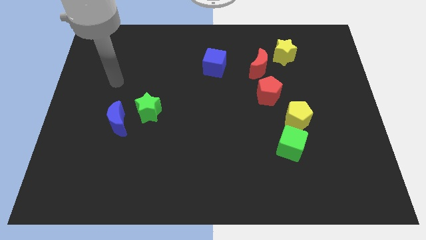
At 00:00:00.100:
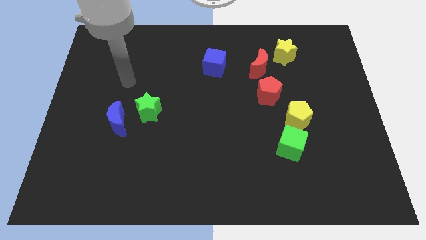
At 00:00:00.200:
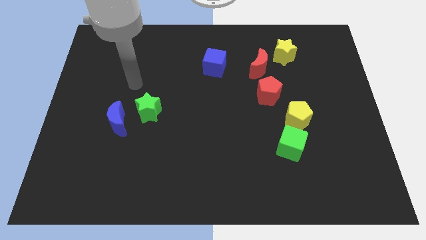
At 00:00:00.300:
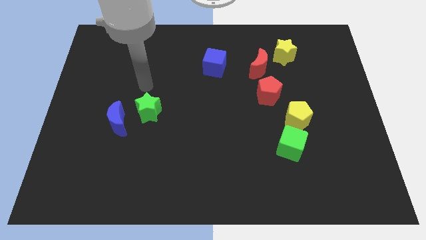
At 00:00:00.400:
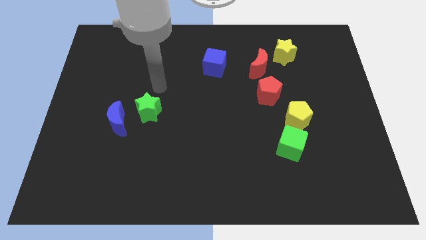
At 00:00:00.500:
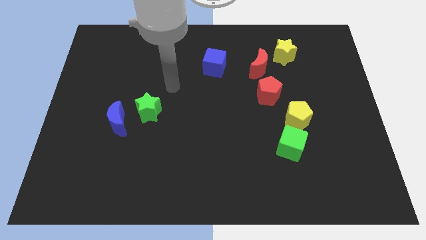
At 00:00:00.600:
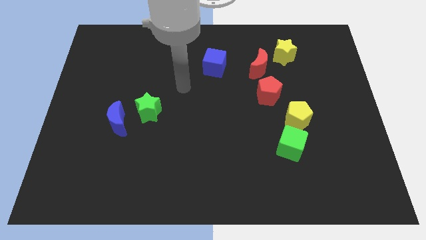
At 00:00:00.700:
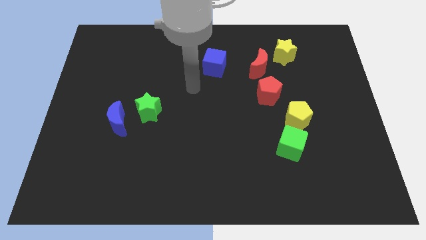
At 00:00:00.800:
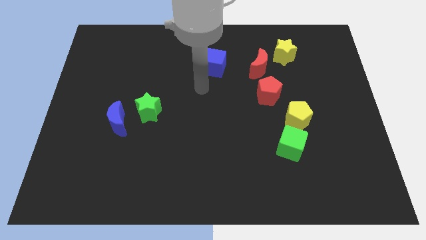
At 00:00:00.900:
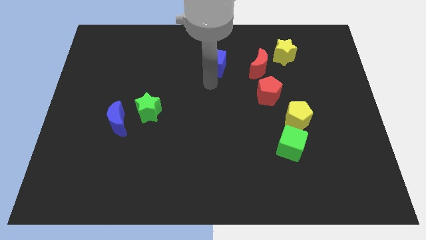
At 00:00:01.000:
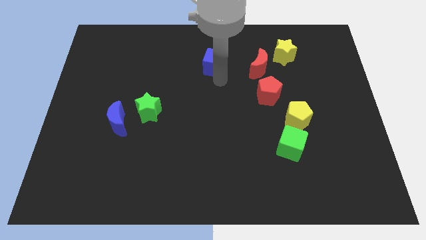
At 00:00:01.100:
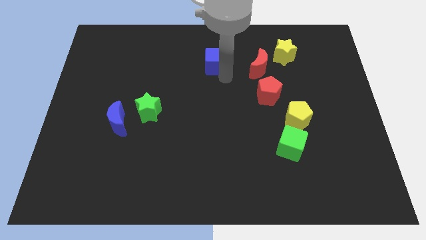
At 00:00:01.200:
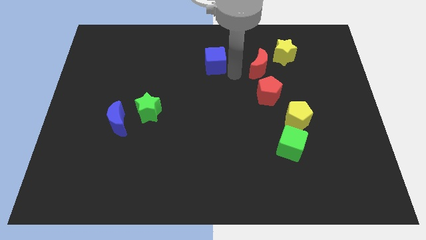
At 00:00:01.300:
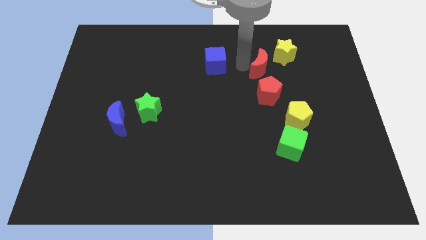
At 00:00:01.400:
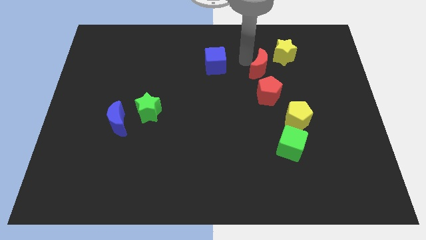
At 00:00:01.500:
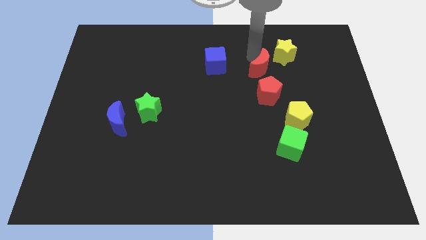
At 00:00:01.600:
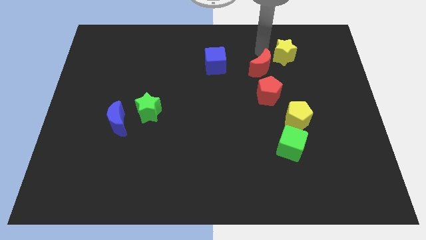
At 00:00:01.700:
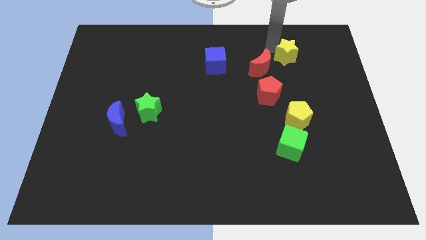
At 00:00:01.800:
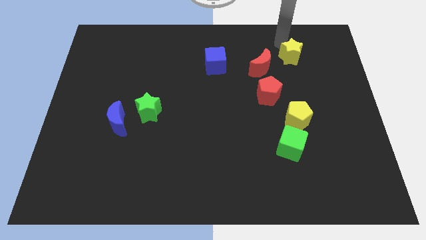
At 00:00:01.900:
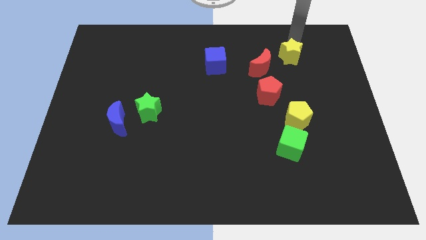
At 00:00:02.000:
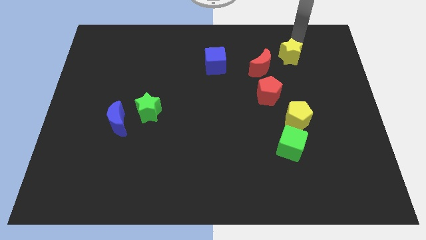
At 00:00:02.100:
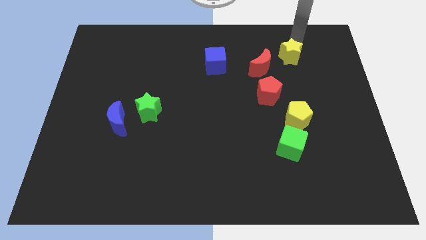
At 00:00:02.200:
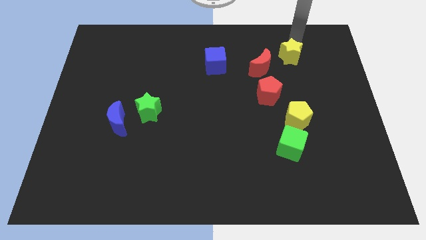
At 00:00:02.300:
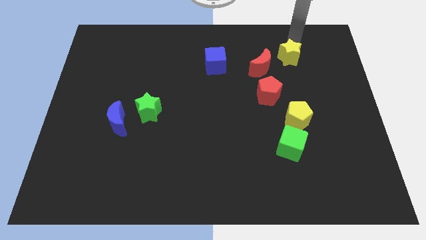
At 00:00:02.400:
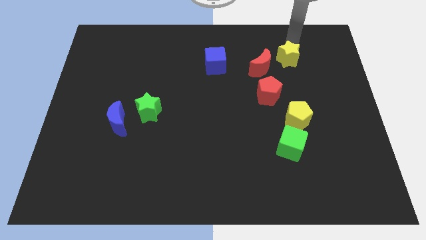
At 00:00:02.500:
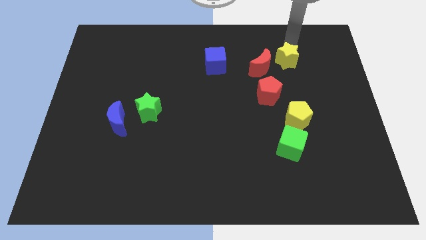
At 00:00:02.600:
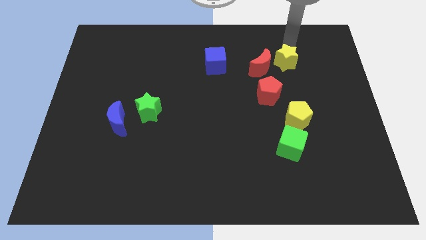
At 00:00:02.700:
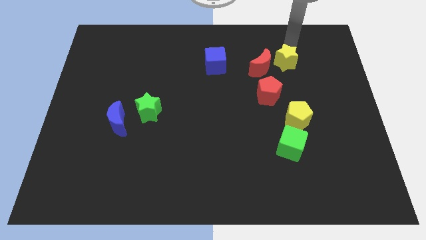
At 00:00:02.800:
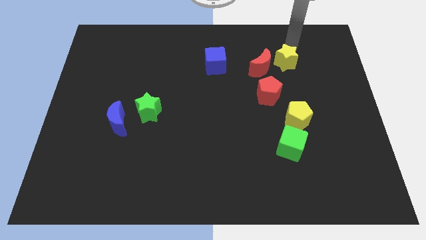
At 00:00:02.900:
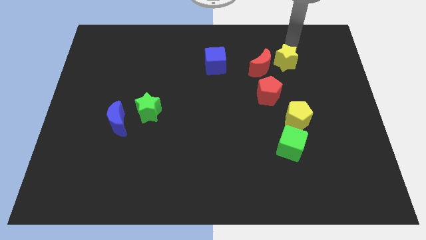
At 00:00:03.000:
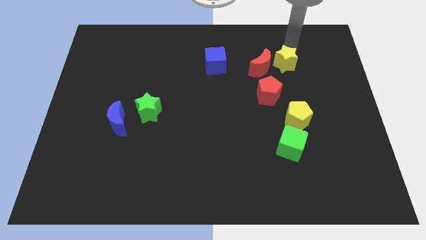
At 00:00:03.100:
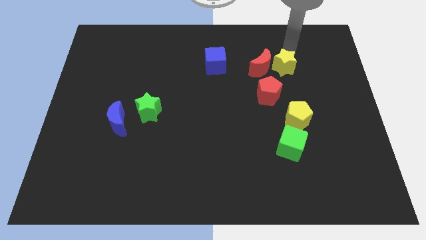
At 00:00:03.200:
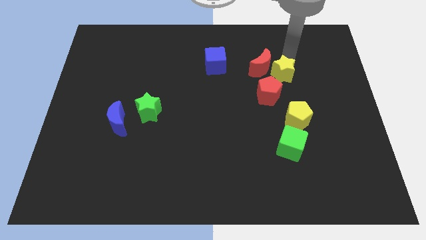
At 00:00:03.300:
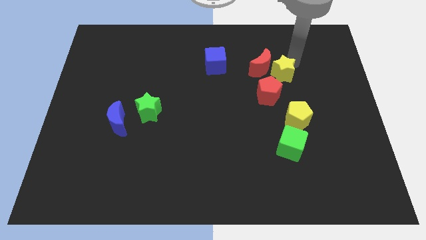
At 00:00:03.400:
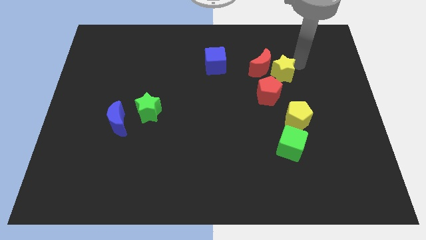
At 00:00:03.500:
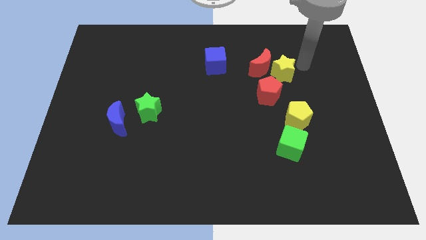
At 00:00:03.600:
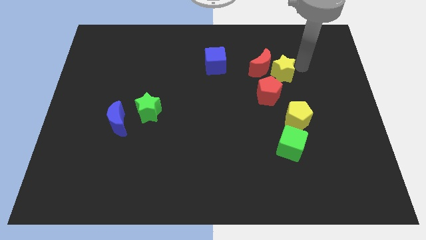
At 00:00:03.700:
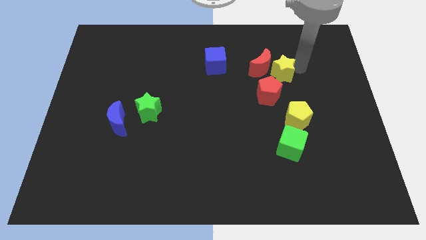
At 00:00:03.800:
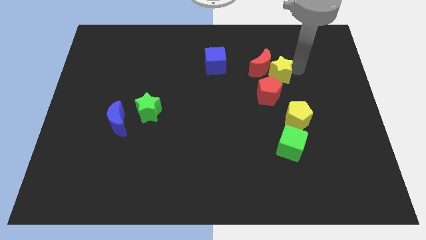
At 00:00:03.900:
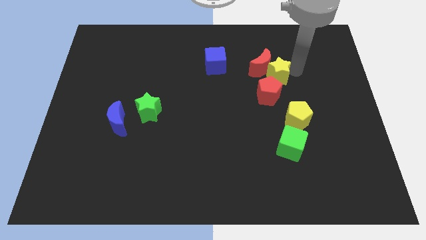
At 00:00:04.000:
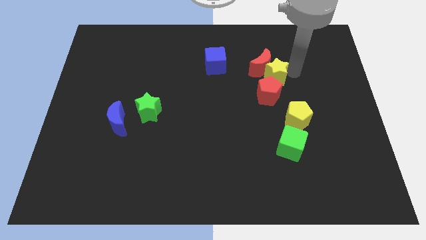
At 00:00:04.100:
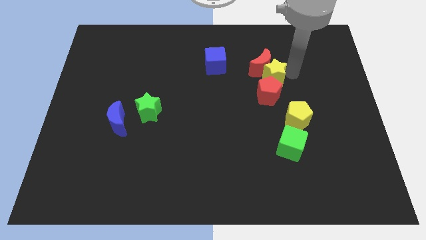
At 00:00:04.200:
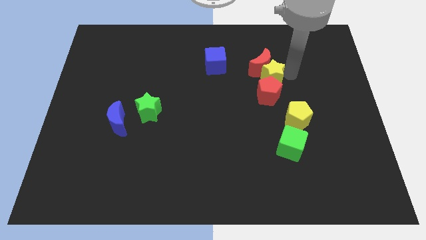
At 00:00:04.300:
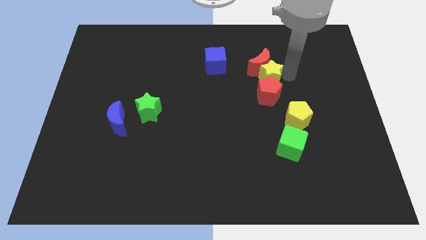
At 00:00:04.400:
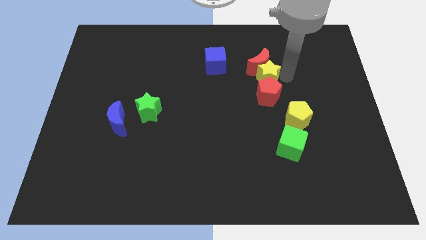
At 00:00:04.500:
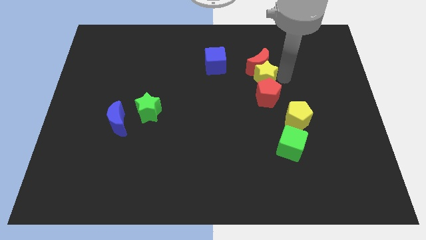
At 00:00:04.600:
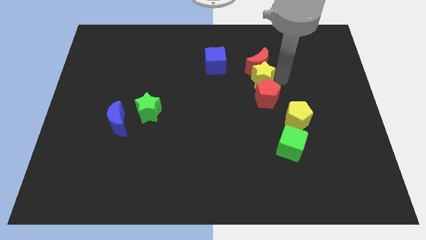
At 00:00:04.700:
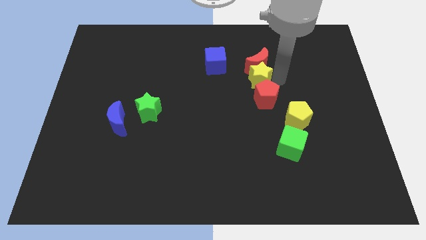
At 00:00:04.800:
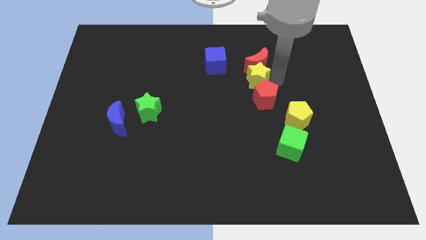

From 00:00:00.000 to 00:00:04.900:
put the yellow star to the center of the board
